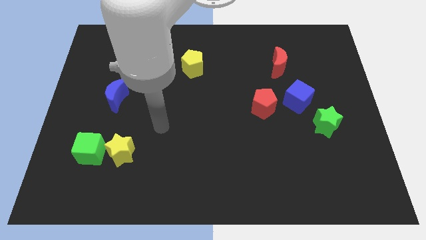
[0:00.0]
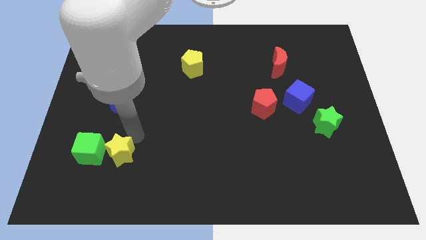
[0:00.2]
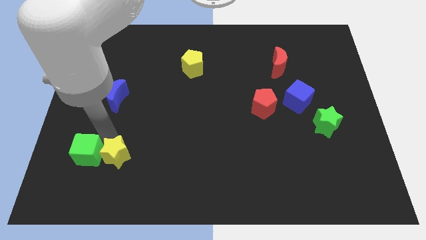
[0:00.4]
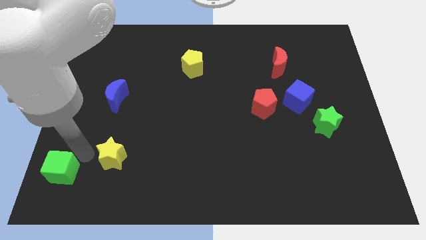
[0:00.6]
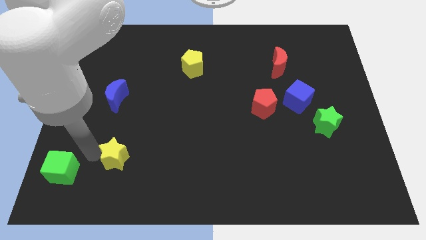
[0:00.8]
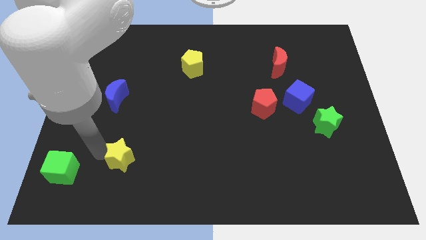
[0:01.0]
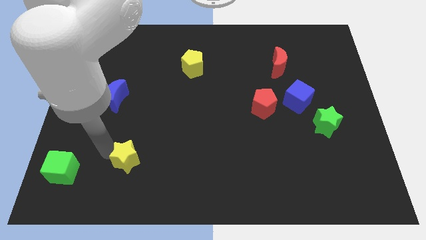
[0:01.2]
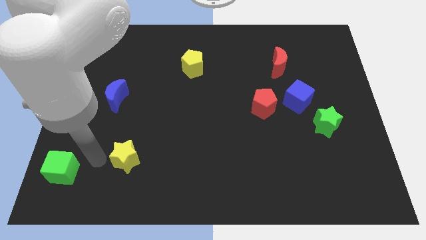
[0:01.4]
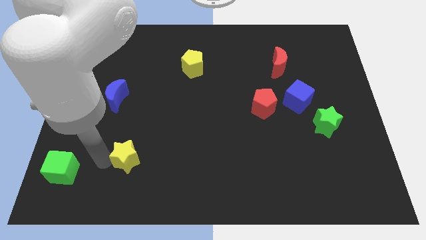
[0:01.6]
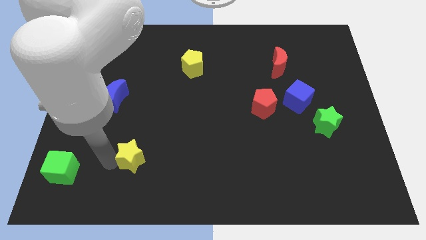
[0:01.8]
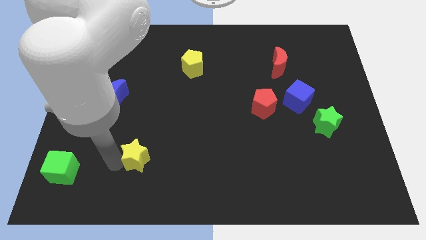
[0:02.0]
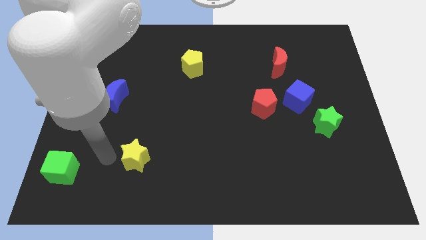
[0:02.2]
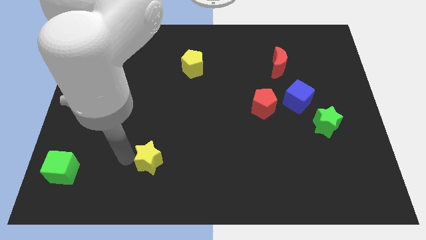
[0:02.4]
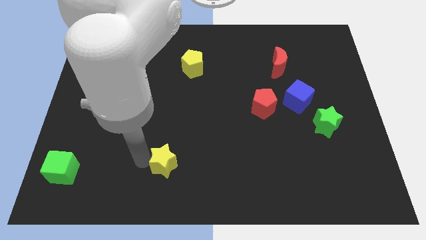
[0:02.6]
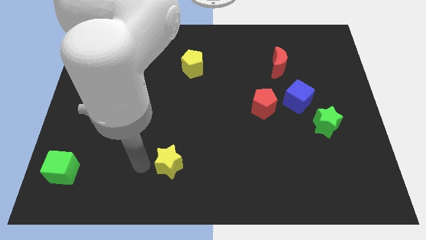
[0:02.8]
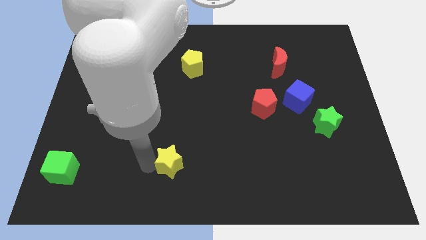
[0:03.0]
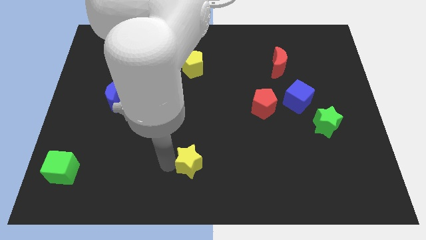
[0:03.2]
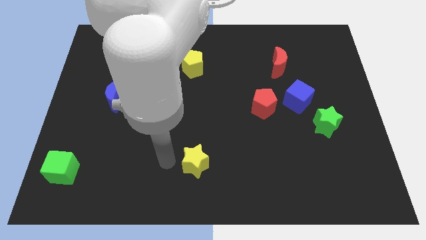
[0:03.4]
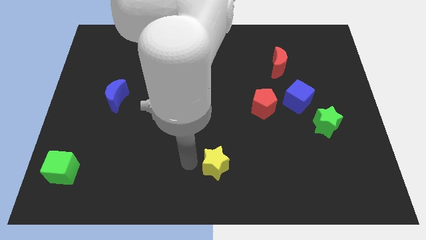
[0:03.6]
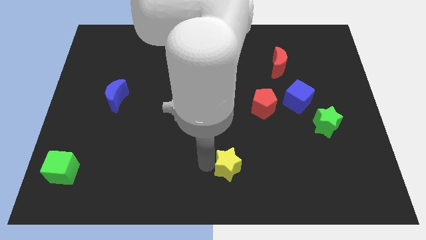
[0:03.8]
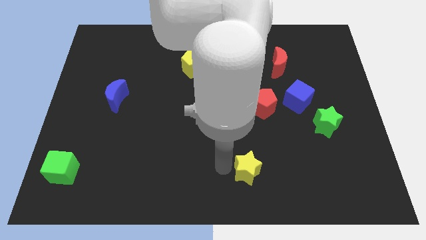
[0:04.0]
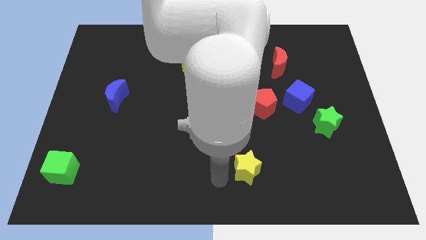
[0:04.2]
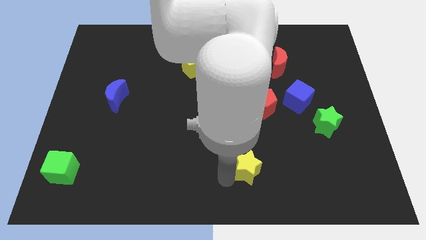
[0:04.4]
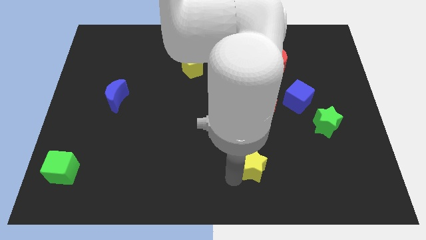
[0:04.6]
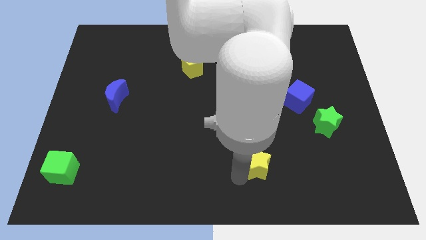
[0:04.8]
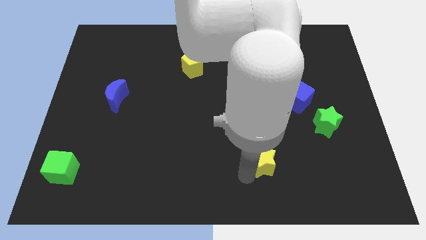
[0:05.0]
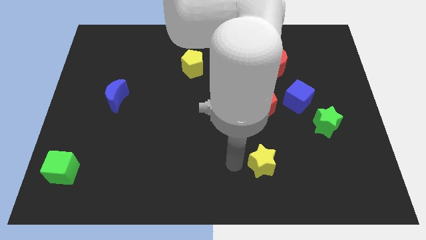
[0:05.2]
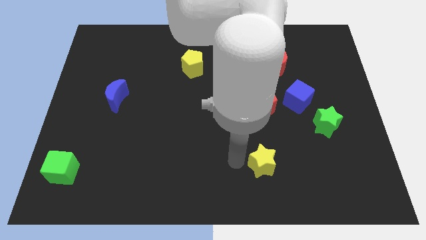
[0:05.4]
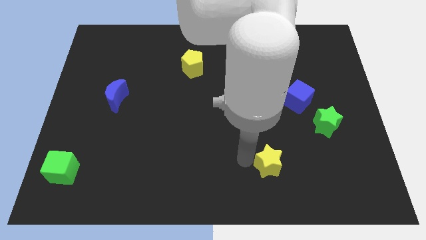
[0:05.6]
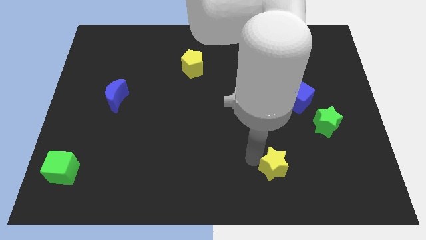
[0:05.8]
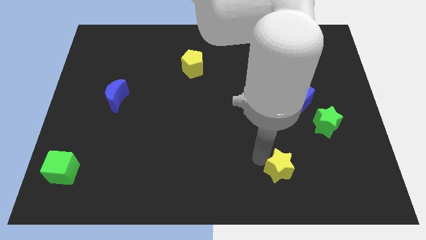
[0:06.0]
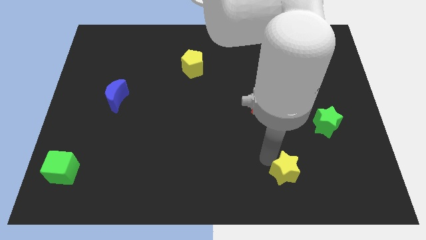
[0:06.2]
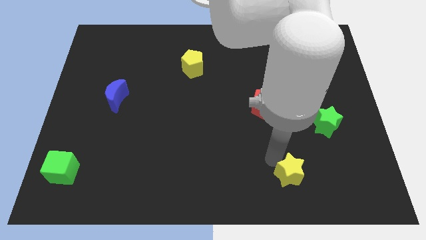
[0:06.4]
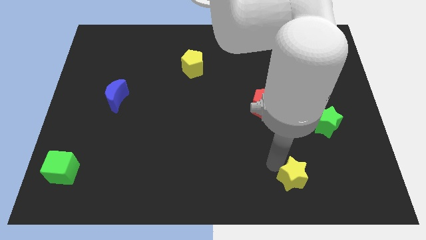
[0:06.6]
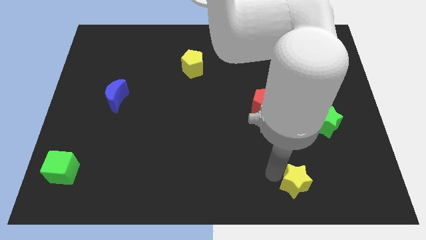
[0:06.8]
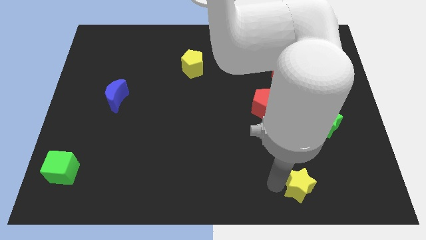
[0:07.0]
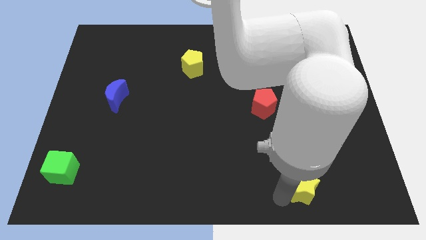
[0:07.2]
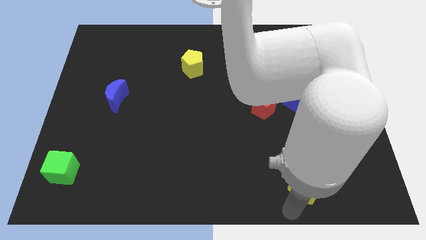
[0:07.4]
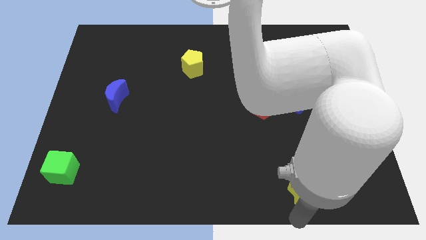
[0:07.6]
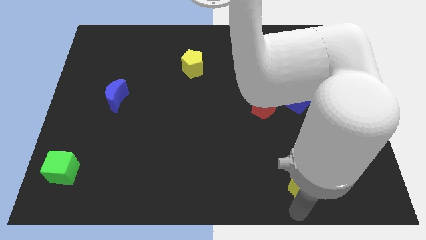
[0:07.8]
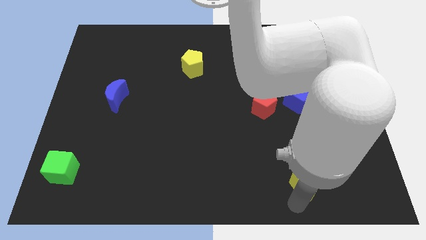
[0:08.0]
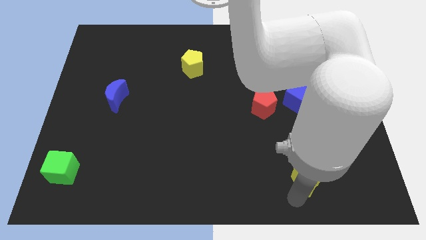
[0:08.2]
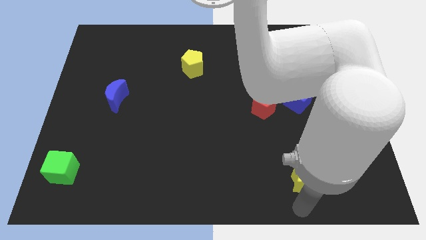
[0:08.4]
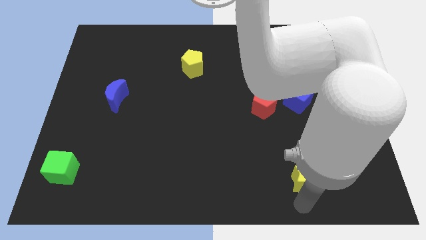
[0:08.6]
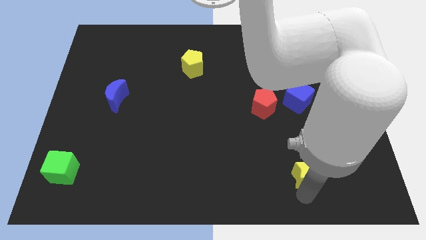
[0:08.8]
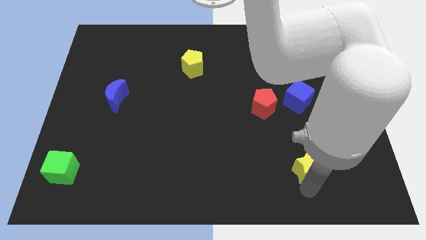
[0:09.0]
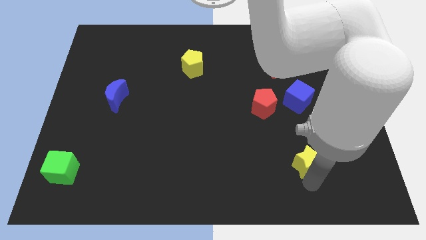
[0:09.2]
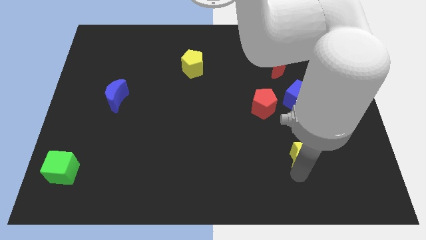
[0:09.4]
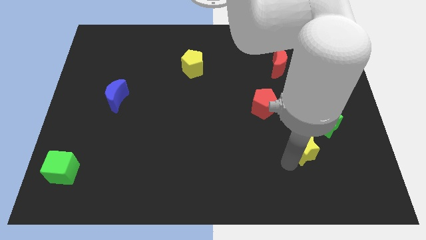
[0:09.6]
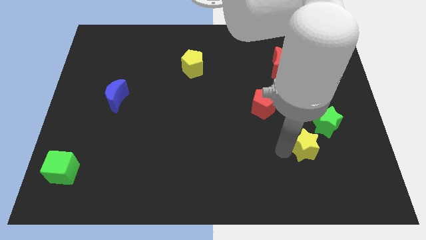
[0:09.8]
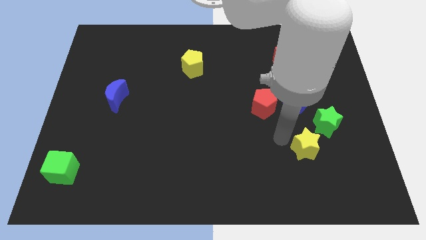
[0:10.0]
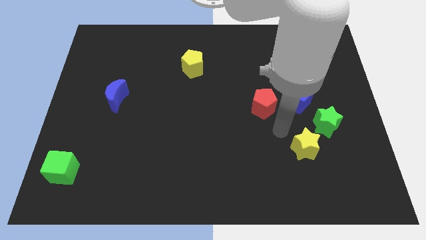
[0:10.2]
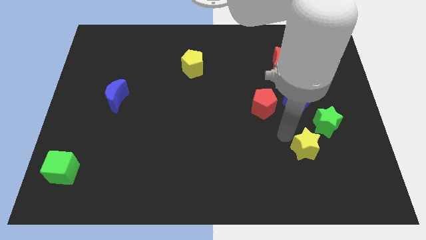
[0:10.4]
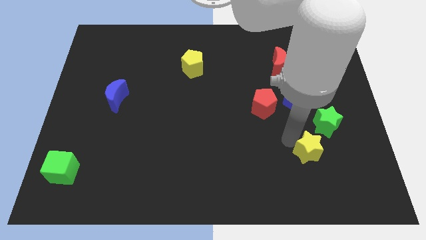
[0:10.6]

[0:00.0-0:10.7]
push the yellow star below the green star

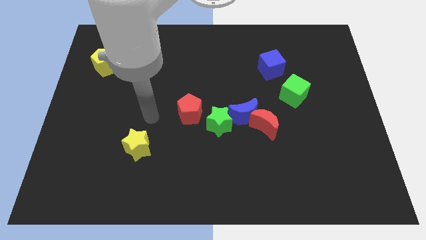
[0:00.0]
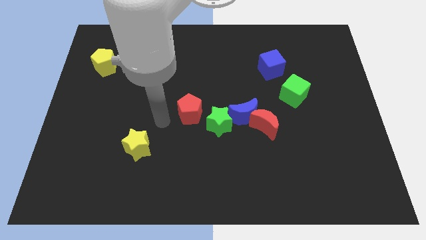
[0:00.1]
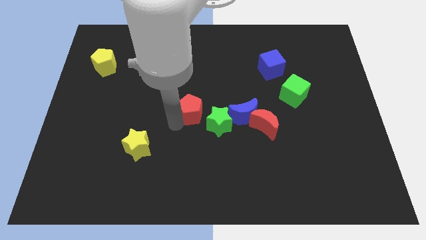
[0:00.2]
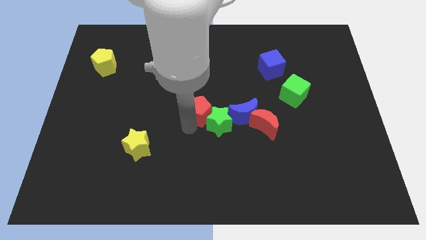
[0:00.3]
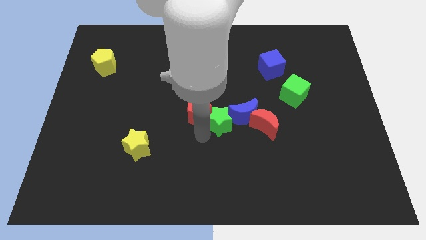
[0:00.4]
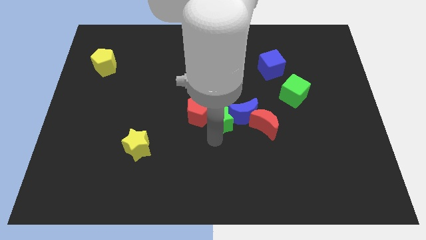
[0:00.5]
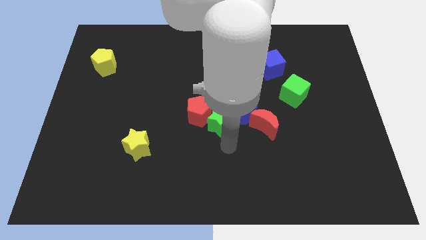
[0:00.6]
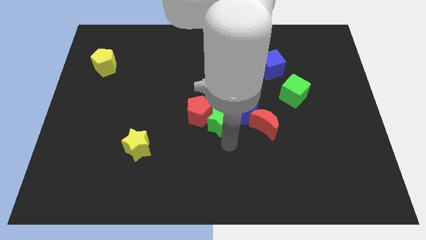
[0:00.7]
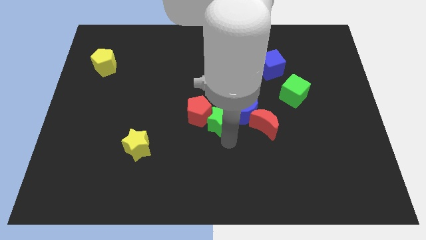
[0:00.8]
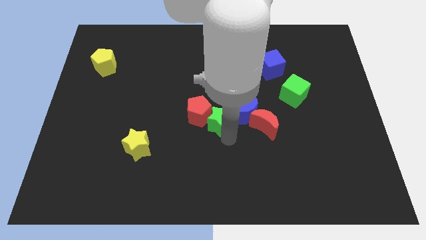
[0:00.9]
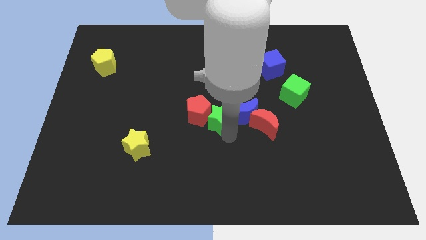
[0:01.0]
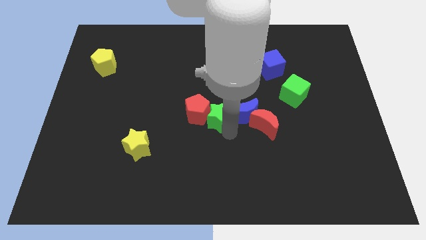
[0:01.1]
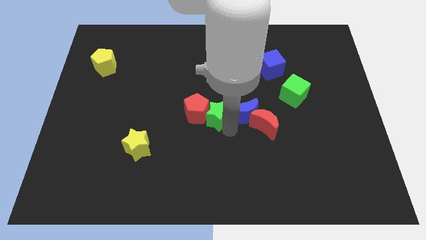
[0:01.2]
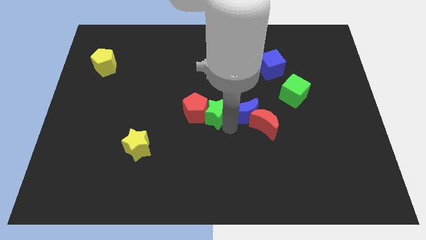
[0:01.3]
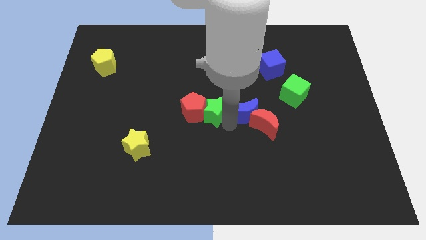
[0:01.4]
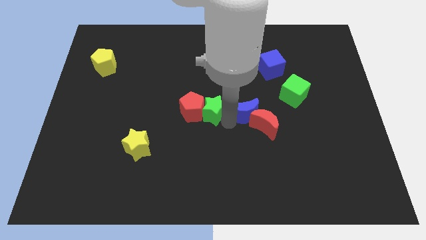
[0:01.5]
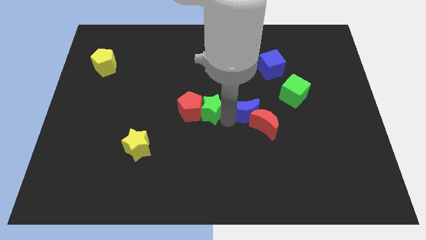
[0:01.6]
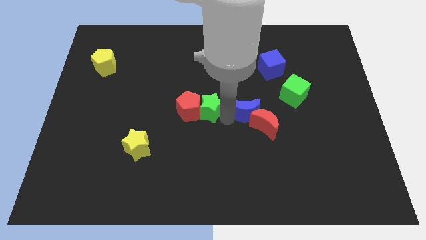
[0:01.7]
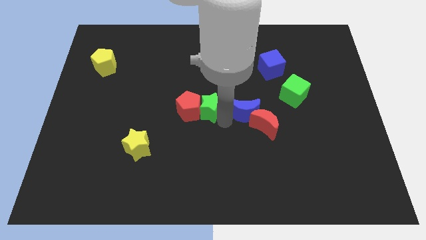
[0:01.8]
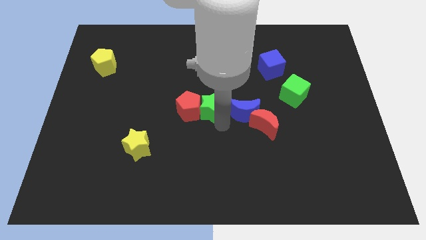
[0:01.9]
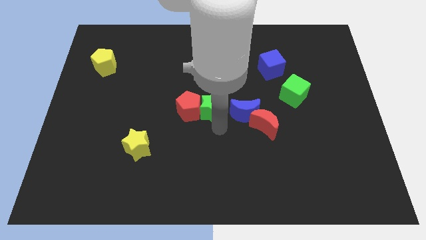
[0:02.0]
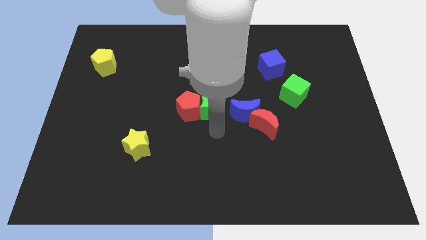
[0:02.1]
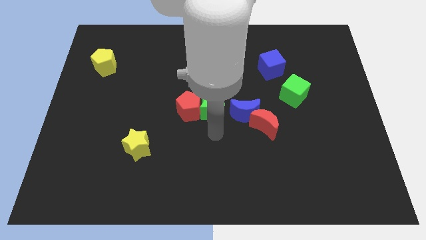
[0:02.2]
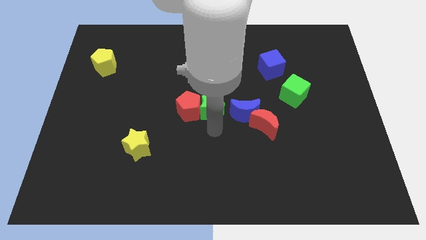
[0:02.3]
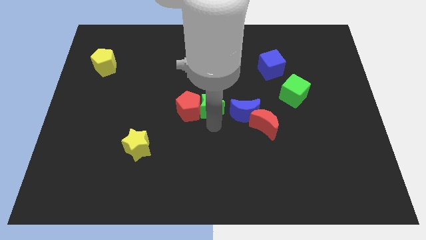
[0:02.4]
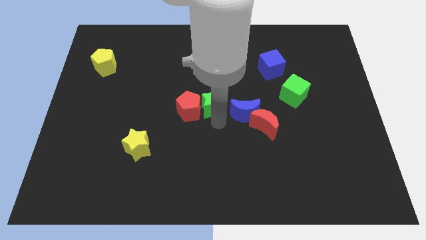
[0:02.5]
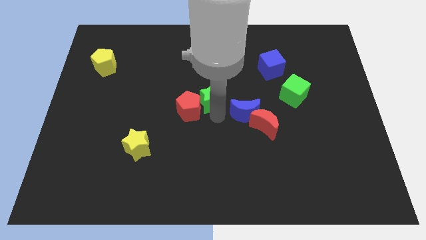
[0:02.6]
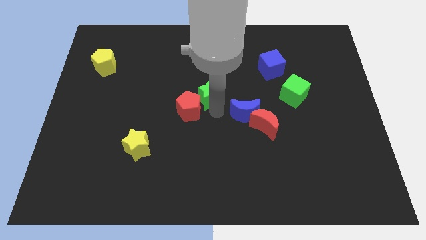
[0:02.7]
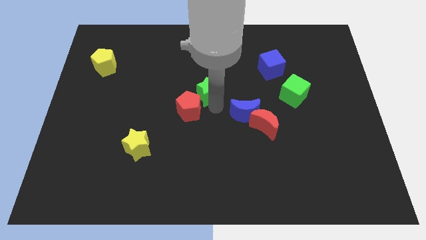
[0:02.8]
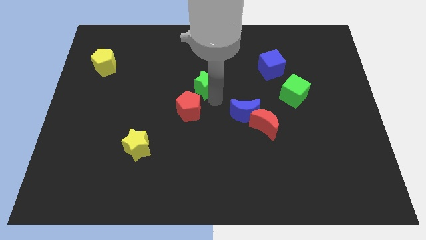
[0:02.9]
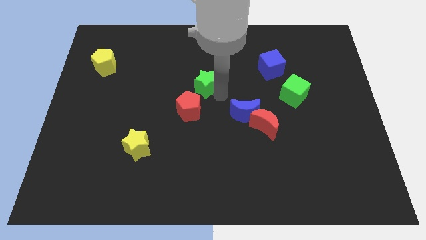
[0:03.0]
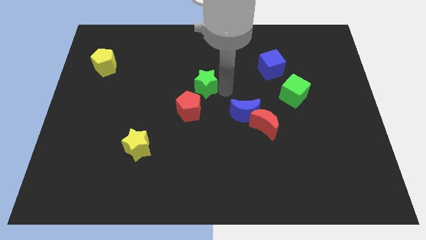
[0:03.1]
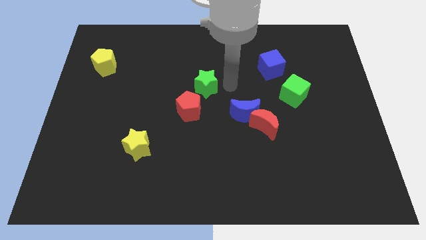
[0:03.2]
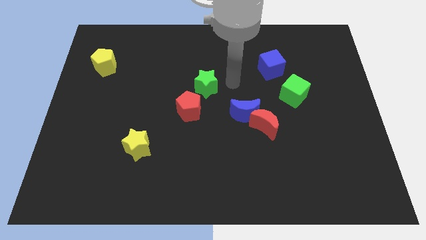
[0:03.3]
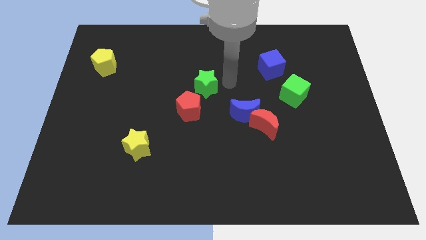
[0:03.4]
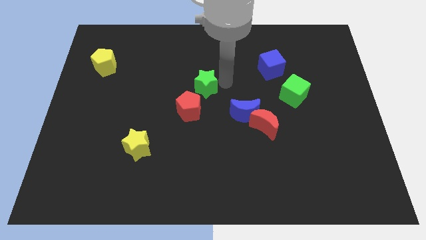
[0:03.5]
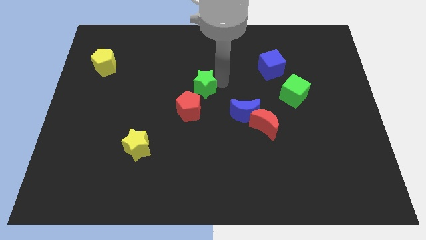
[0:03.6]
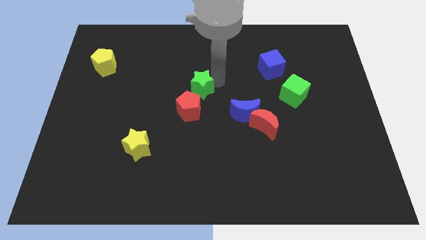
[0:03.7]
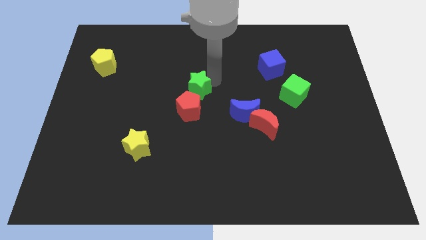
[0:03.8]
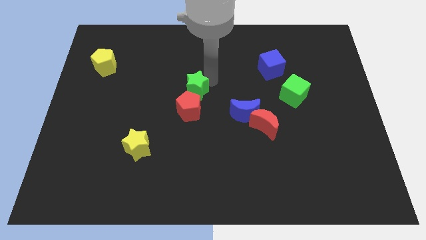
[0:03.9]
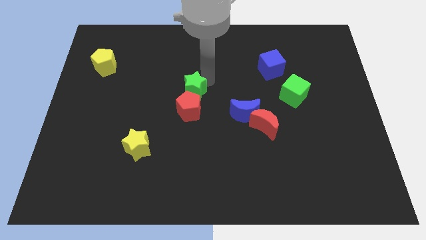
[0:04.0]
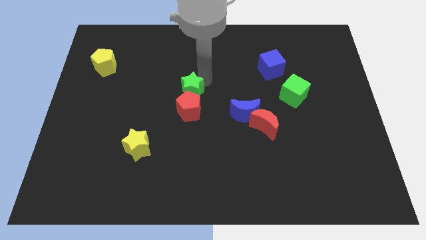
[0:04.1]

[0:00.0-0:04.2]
push the green star diagonally up and to the left of the red pentagon
